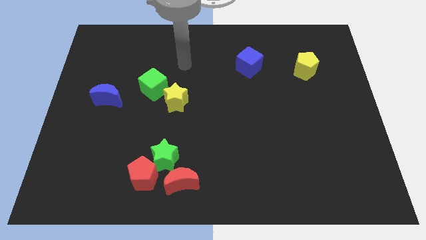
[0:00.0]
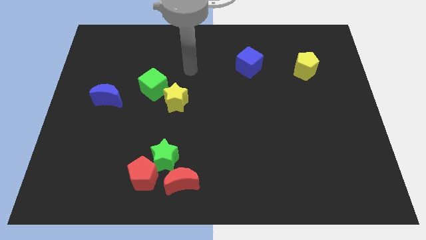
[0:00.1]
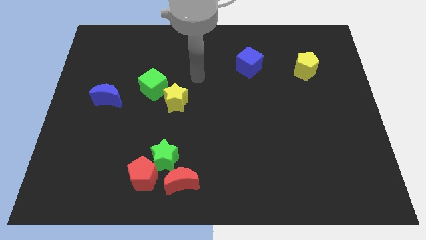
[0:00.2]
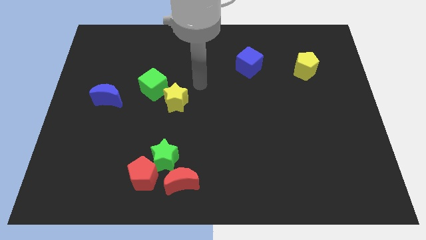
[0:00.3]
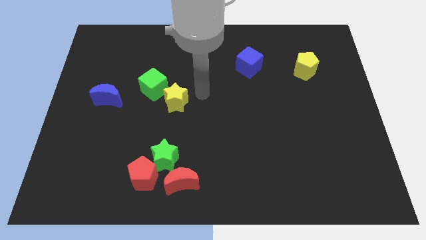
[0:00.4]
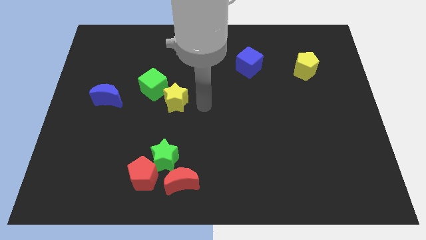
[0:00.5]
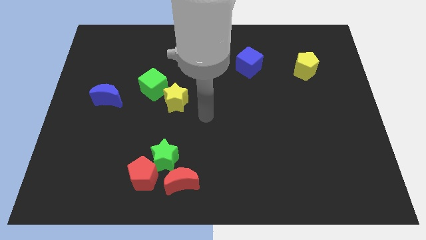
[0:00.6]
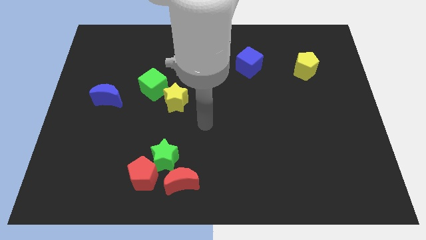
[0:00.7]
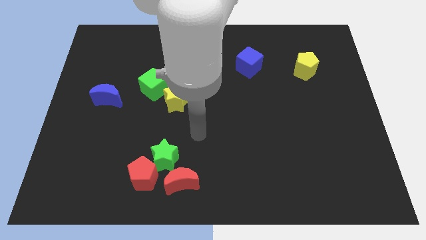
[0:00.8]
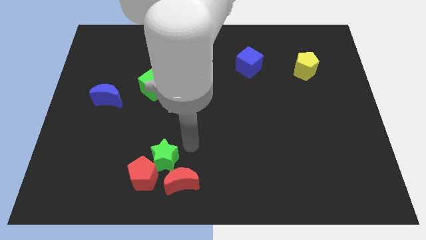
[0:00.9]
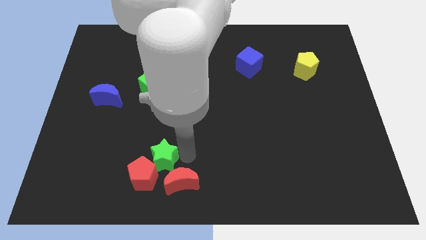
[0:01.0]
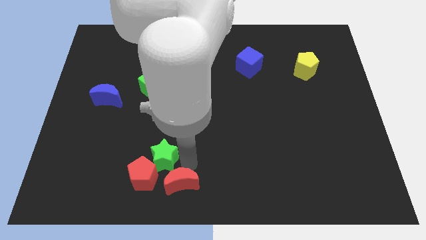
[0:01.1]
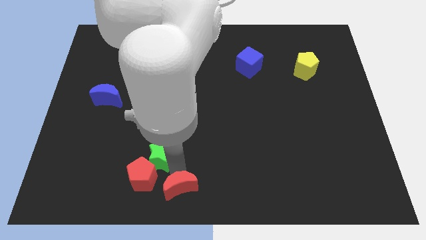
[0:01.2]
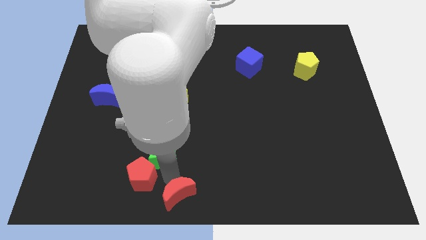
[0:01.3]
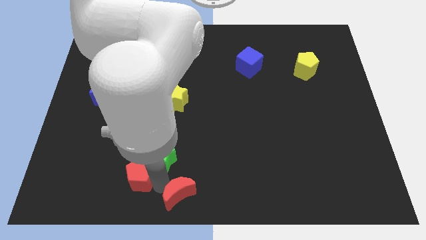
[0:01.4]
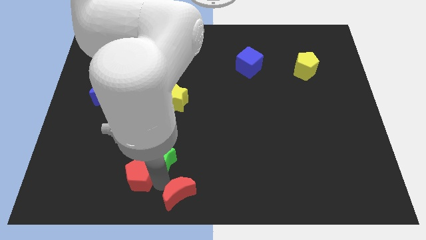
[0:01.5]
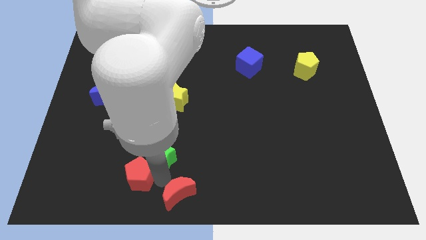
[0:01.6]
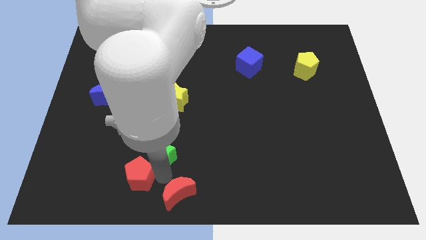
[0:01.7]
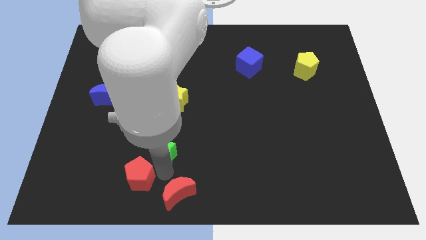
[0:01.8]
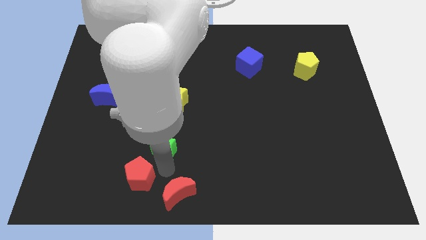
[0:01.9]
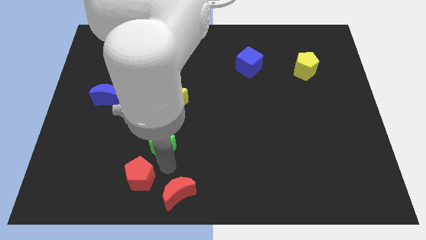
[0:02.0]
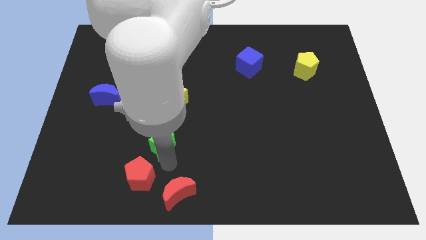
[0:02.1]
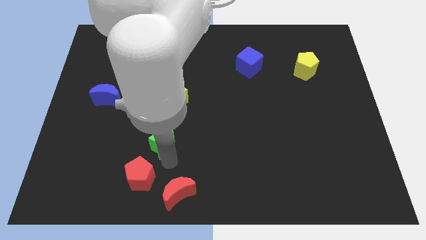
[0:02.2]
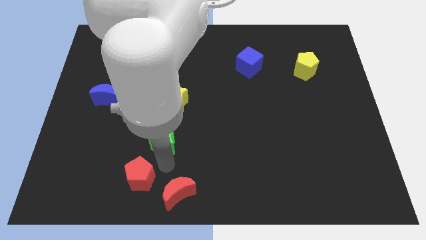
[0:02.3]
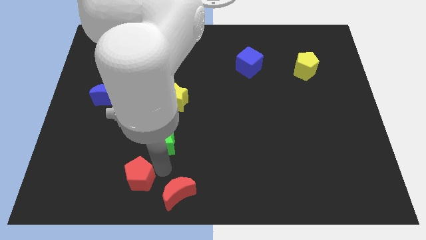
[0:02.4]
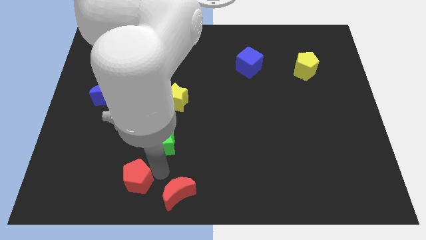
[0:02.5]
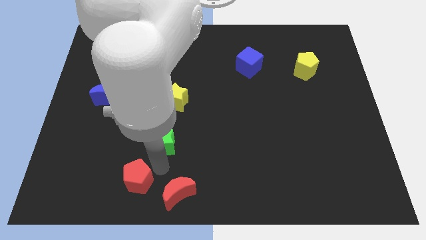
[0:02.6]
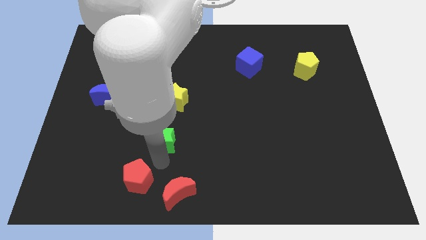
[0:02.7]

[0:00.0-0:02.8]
separate the green star from the red pentagon and red moon

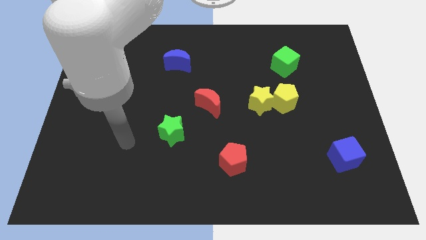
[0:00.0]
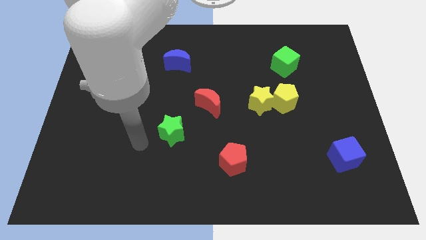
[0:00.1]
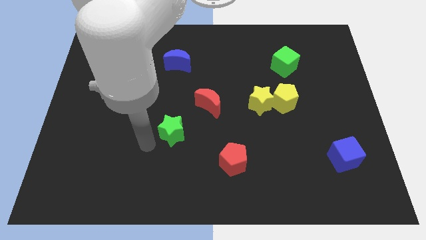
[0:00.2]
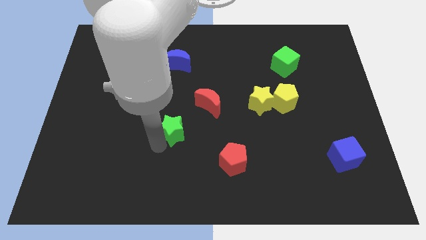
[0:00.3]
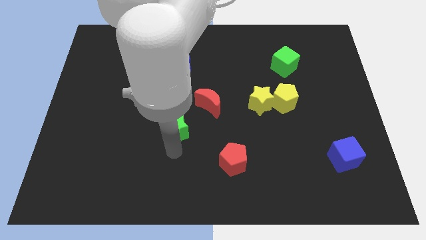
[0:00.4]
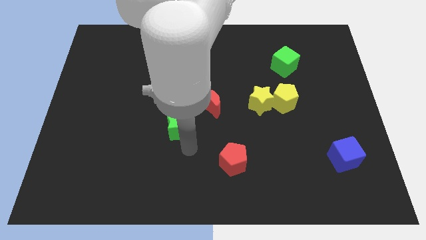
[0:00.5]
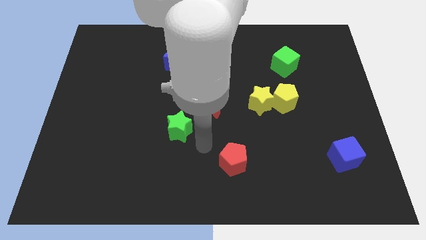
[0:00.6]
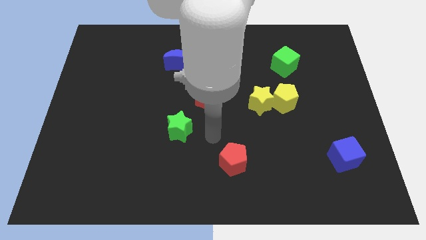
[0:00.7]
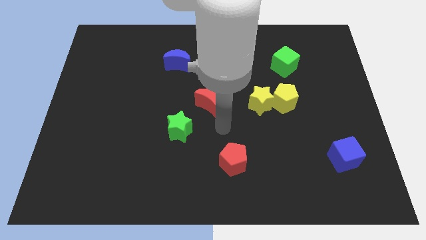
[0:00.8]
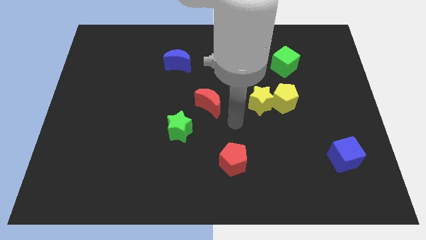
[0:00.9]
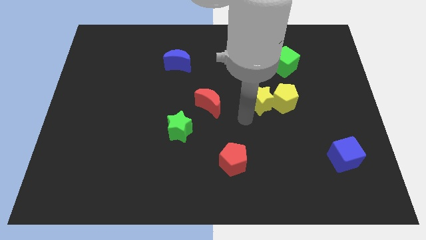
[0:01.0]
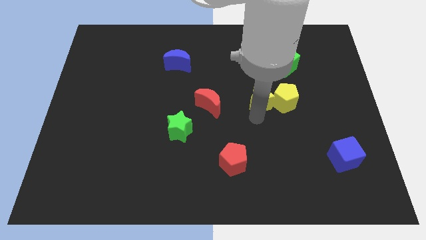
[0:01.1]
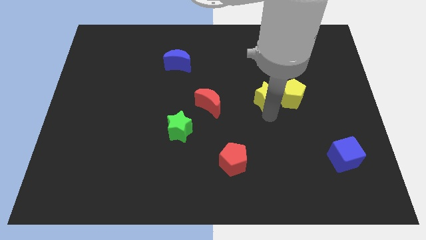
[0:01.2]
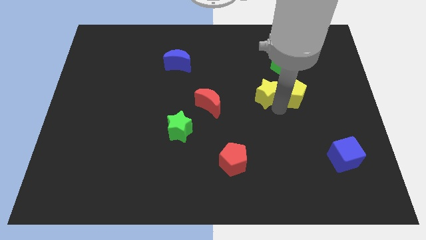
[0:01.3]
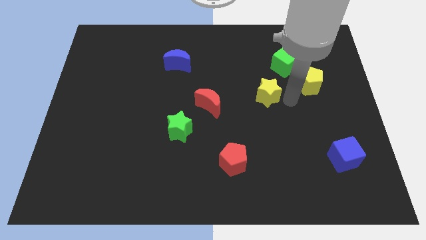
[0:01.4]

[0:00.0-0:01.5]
move the yellow star away from the yellow pentagon

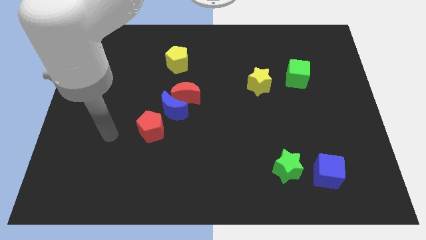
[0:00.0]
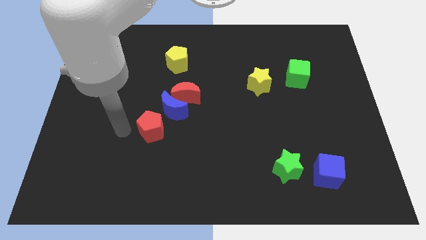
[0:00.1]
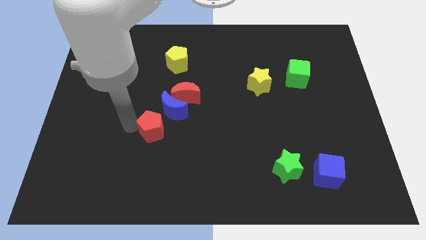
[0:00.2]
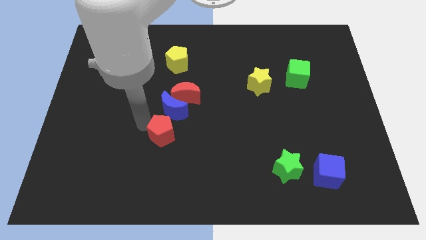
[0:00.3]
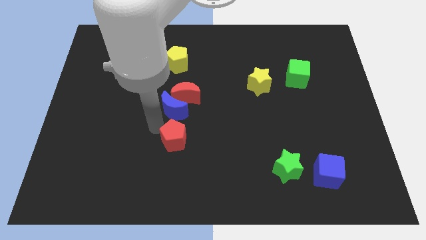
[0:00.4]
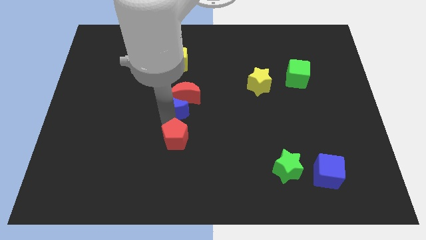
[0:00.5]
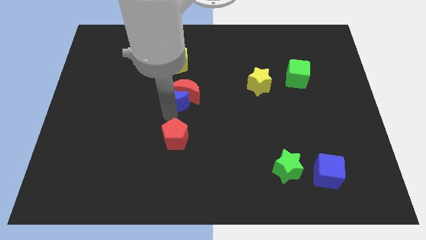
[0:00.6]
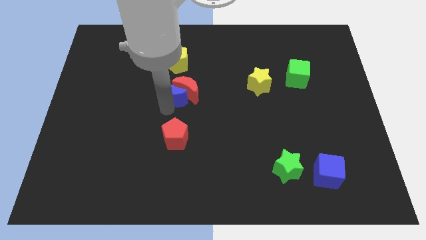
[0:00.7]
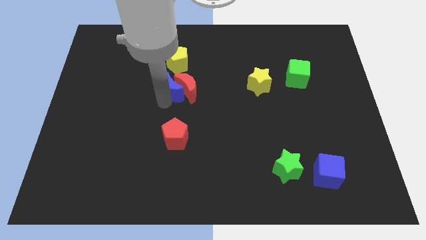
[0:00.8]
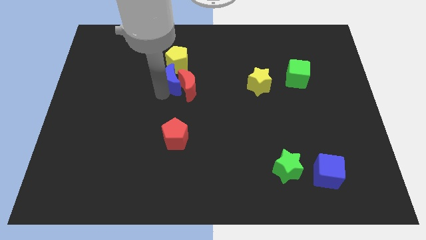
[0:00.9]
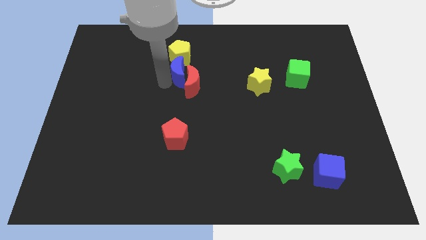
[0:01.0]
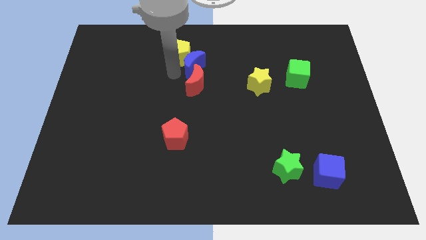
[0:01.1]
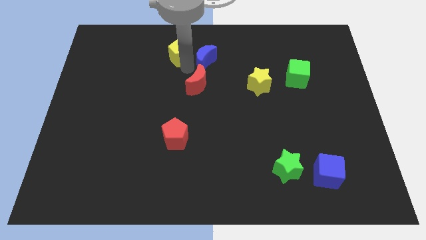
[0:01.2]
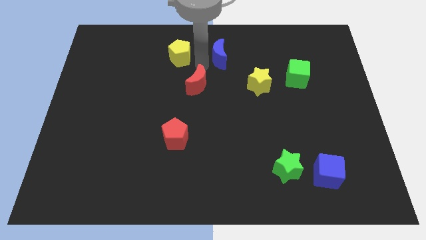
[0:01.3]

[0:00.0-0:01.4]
separate the red moon from the blue moon

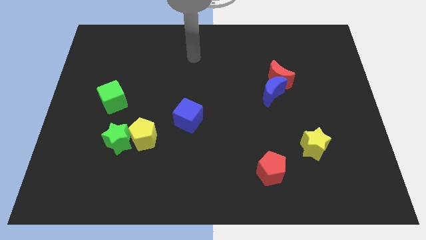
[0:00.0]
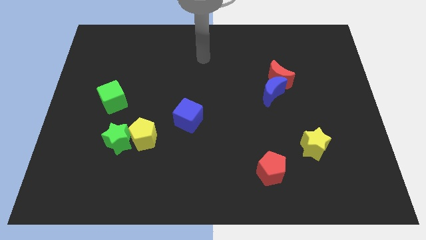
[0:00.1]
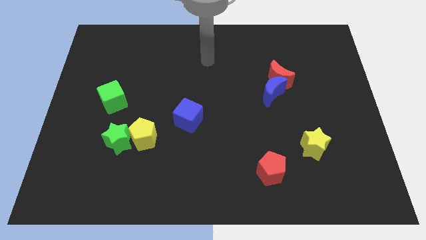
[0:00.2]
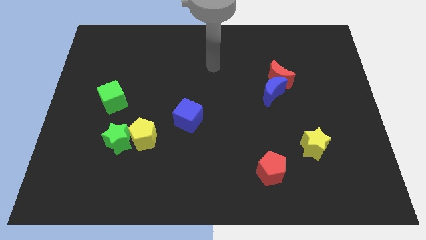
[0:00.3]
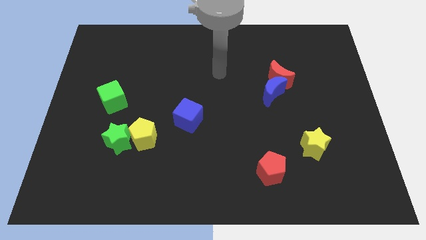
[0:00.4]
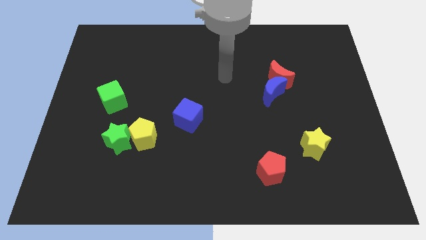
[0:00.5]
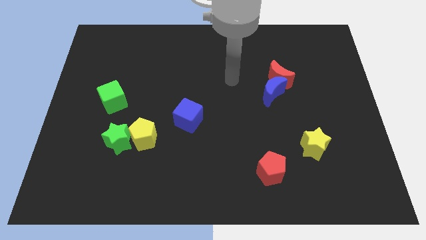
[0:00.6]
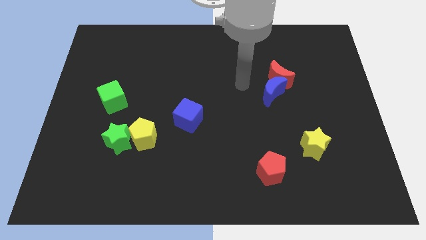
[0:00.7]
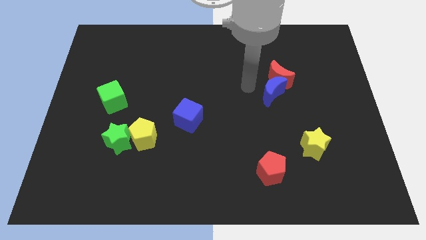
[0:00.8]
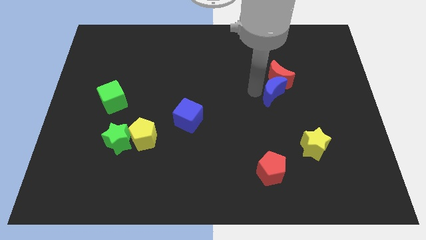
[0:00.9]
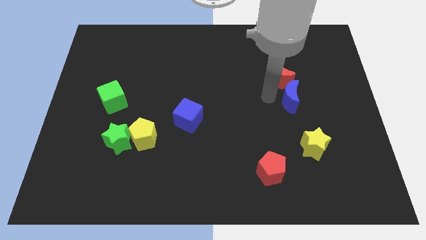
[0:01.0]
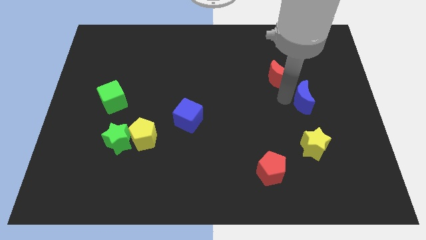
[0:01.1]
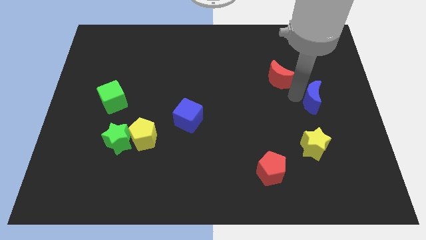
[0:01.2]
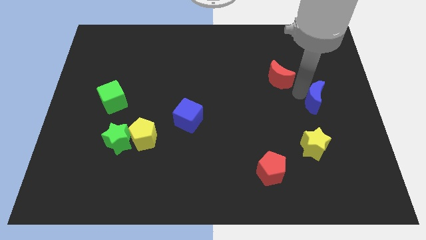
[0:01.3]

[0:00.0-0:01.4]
pull the red moon apart from the blue moon

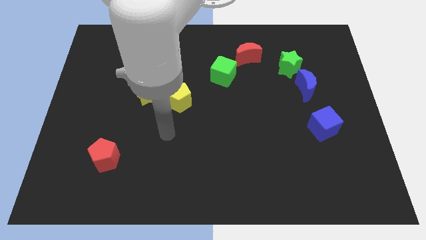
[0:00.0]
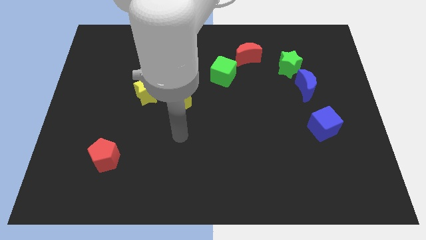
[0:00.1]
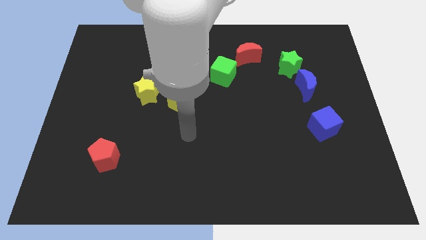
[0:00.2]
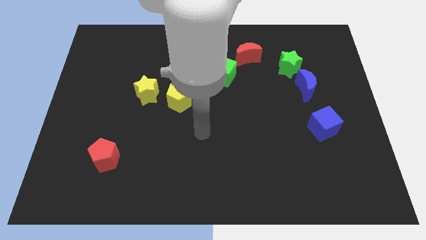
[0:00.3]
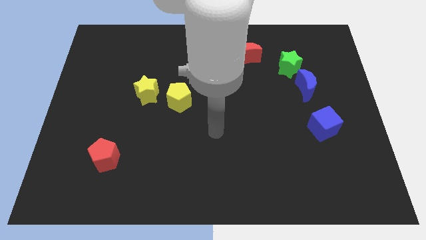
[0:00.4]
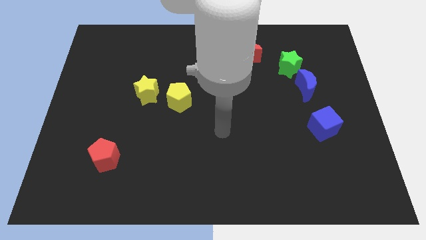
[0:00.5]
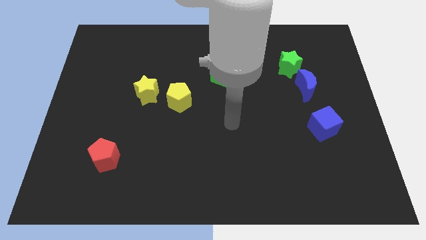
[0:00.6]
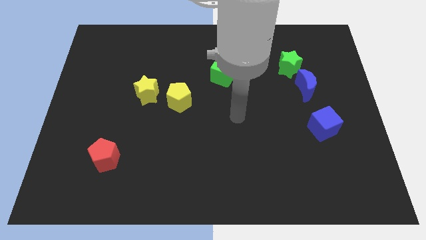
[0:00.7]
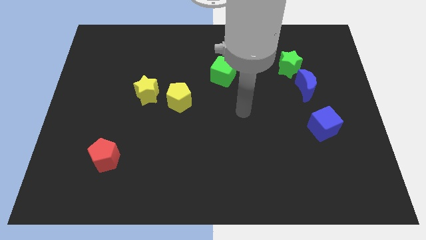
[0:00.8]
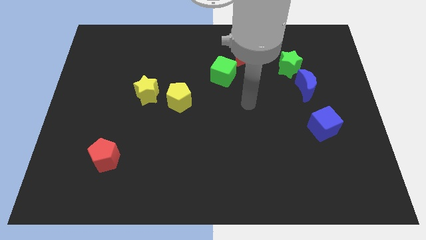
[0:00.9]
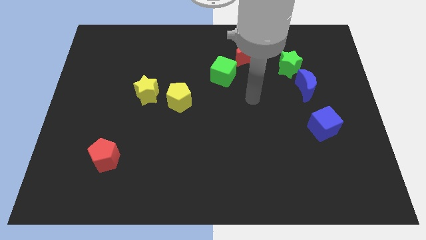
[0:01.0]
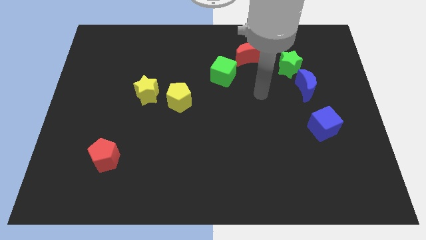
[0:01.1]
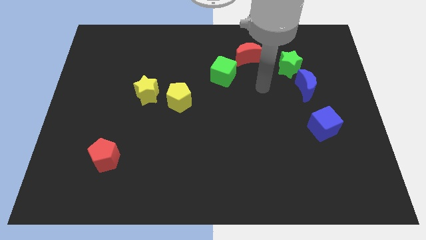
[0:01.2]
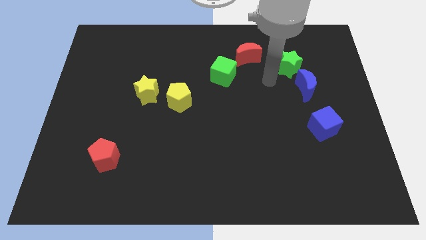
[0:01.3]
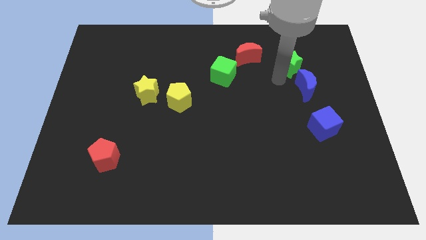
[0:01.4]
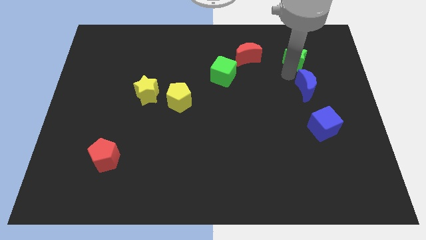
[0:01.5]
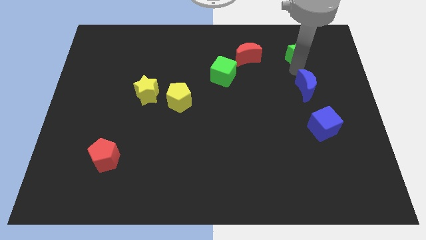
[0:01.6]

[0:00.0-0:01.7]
separate the blue moon from the green star

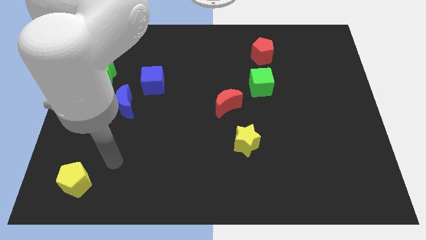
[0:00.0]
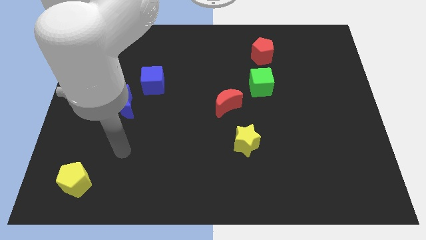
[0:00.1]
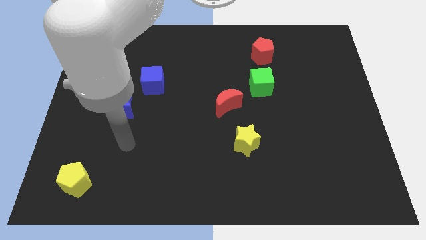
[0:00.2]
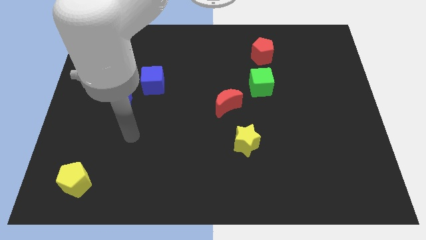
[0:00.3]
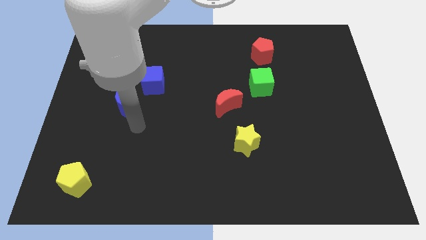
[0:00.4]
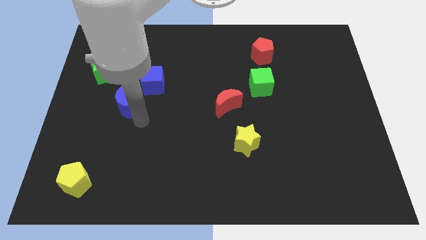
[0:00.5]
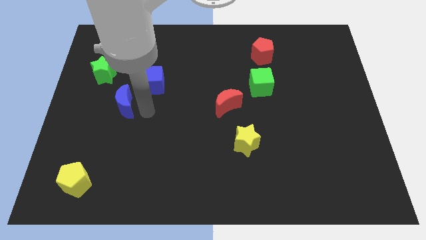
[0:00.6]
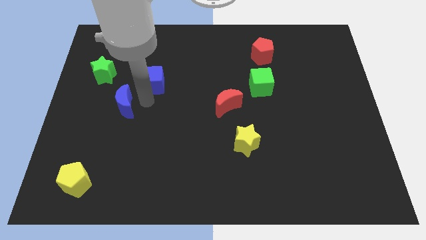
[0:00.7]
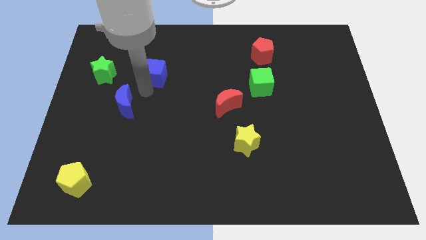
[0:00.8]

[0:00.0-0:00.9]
move the blue moon away from the blue cube
